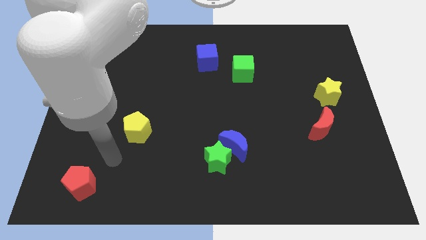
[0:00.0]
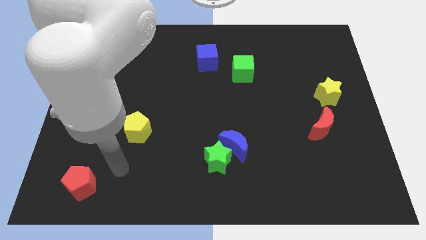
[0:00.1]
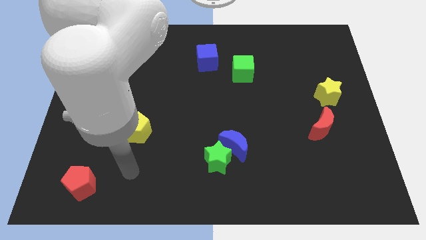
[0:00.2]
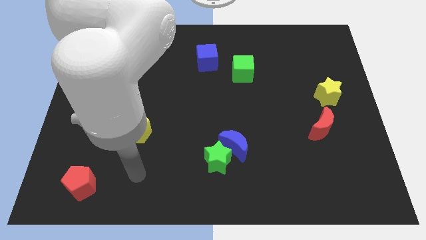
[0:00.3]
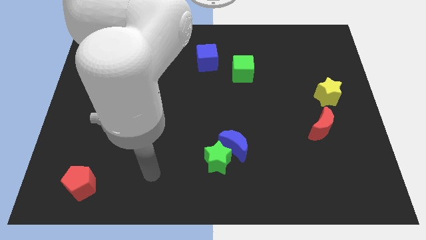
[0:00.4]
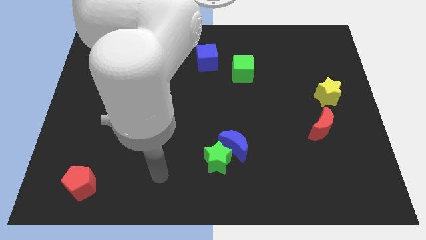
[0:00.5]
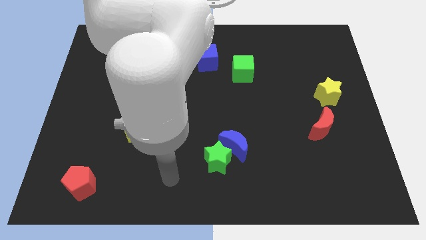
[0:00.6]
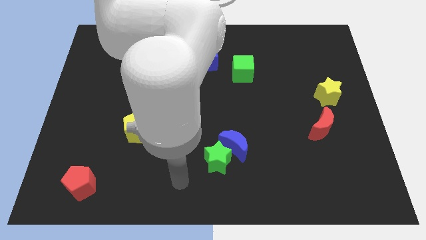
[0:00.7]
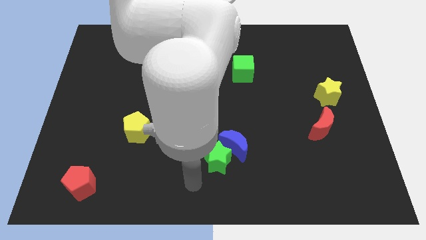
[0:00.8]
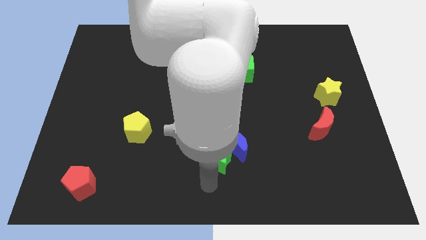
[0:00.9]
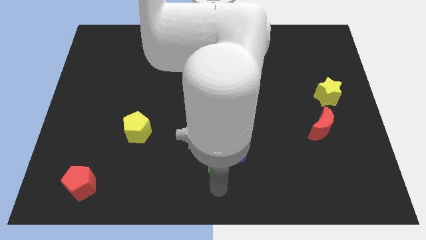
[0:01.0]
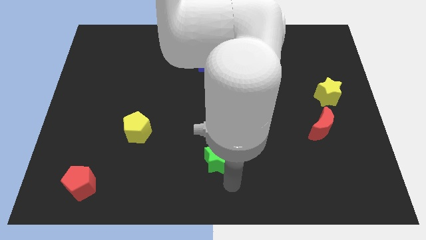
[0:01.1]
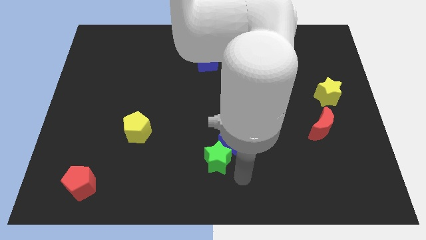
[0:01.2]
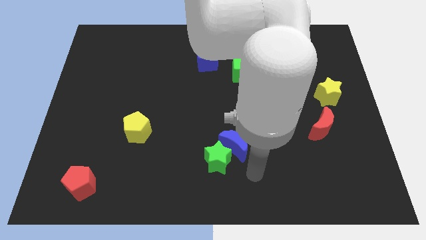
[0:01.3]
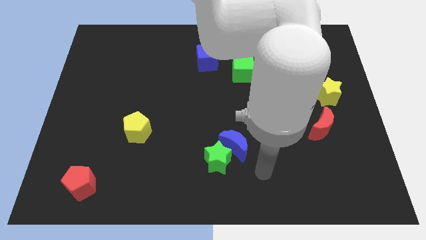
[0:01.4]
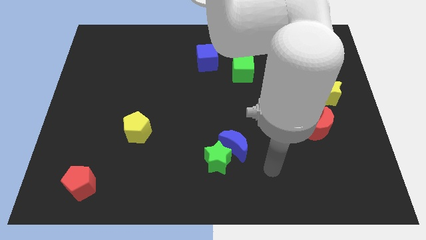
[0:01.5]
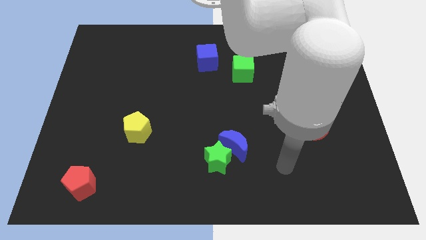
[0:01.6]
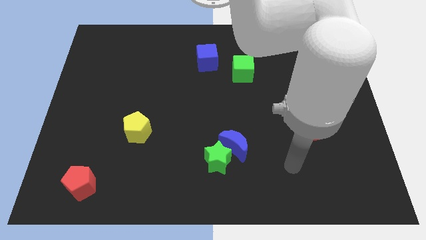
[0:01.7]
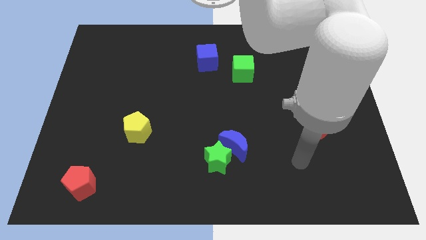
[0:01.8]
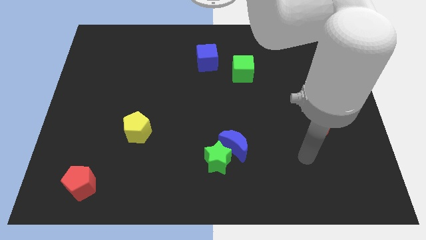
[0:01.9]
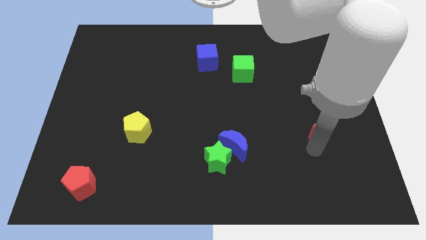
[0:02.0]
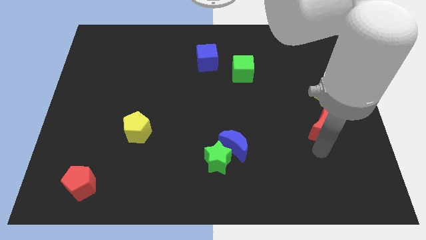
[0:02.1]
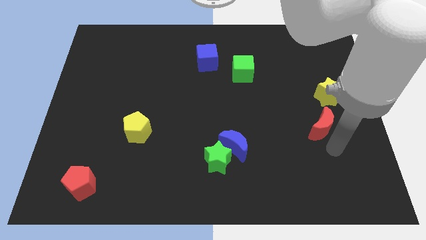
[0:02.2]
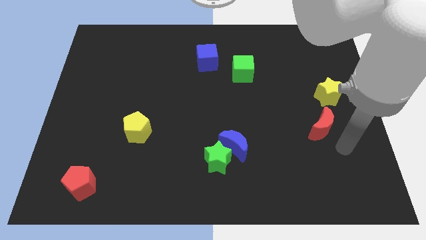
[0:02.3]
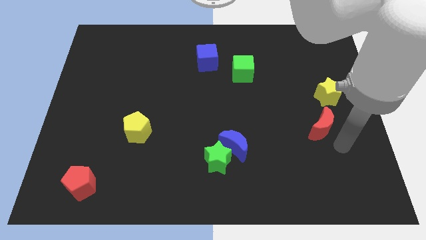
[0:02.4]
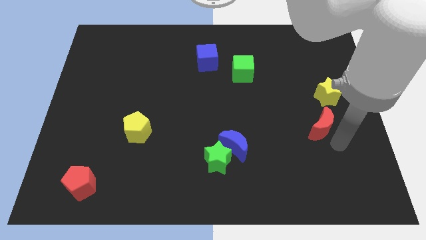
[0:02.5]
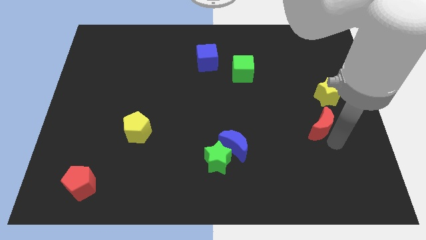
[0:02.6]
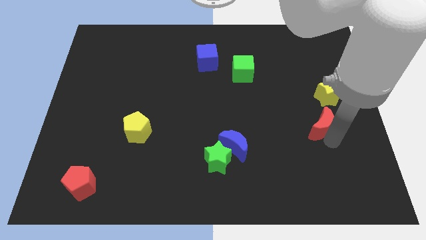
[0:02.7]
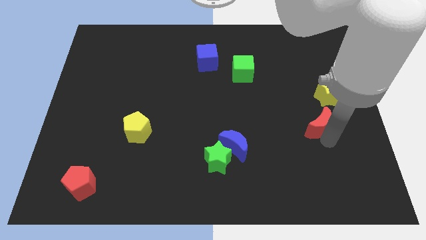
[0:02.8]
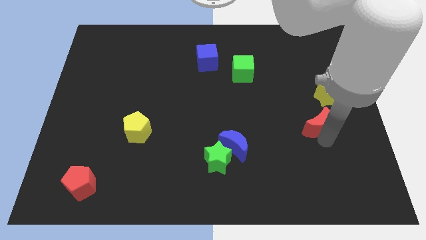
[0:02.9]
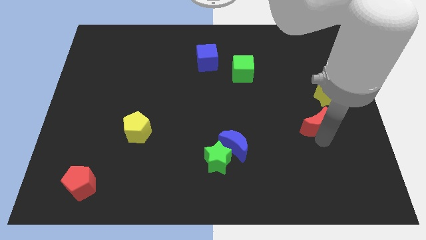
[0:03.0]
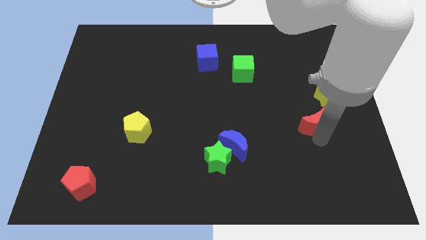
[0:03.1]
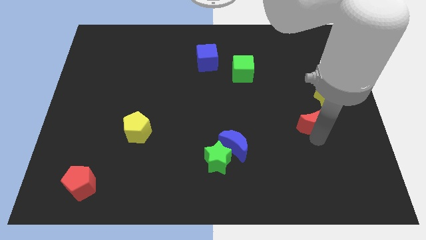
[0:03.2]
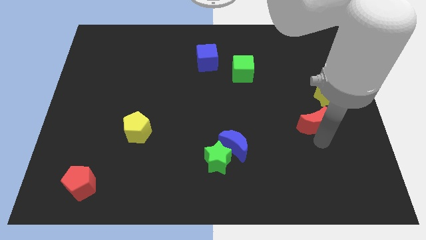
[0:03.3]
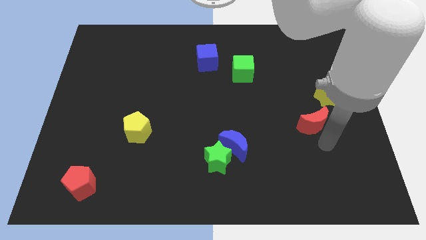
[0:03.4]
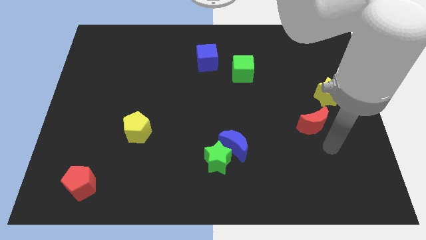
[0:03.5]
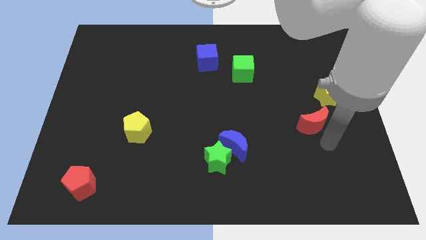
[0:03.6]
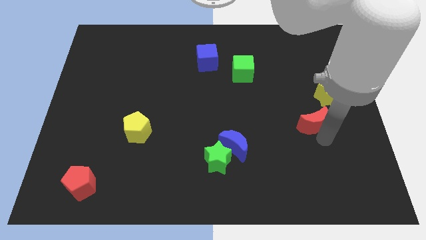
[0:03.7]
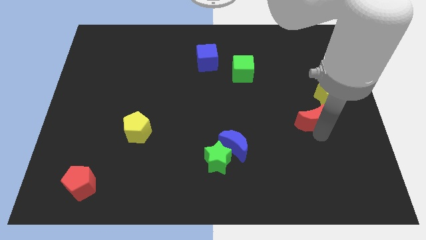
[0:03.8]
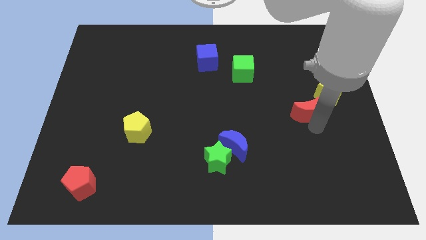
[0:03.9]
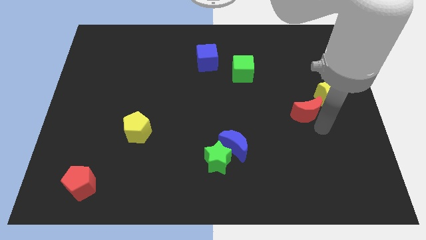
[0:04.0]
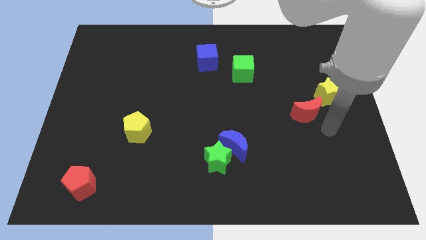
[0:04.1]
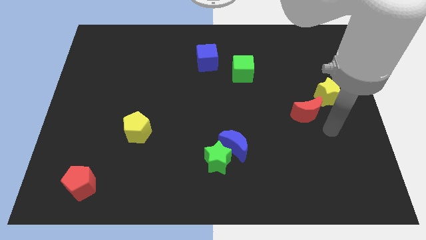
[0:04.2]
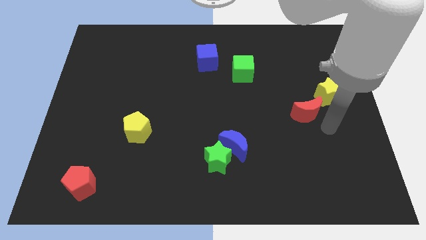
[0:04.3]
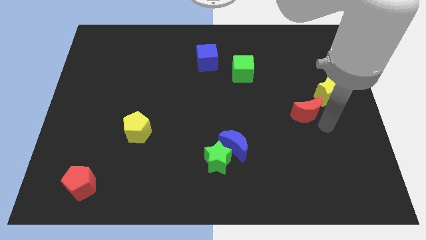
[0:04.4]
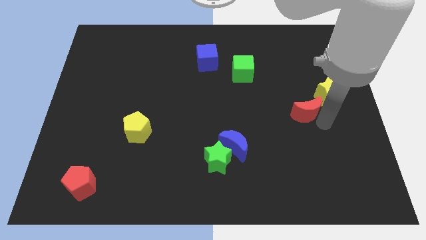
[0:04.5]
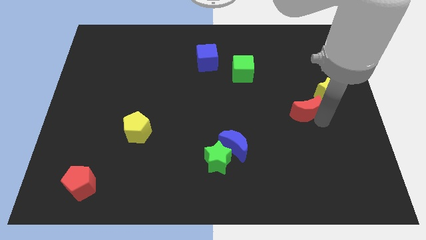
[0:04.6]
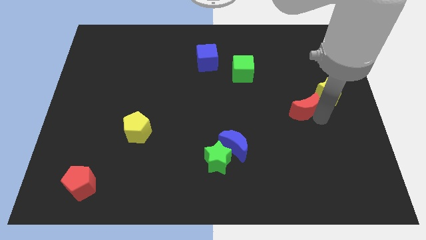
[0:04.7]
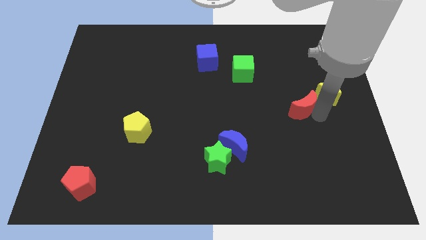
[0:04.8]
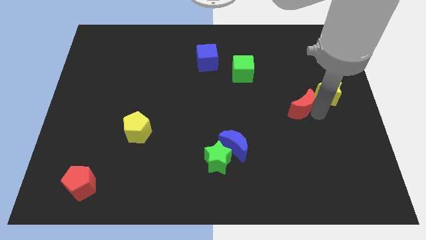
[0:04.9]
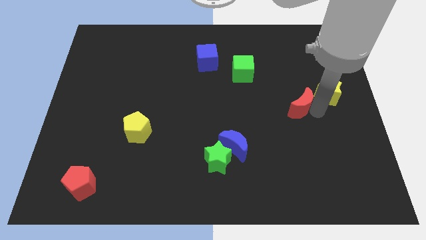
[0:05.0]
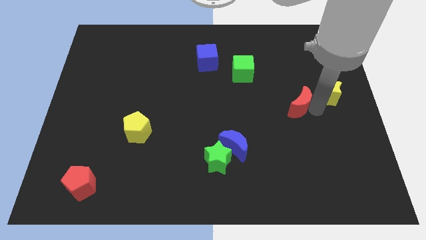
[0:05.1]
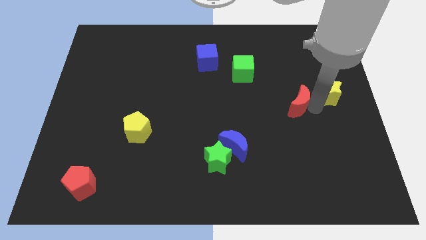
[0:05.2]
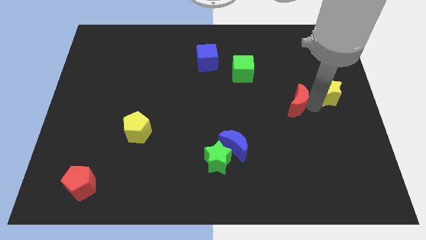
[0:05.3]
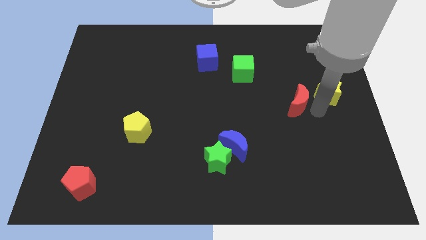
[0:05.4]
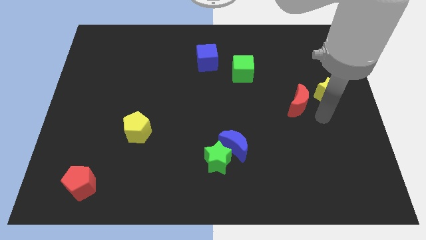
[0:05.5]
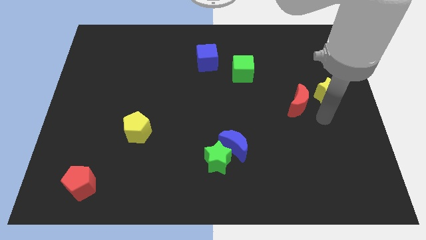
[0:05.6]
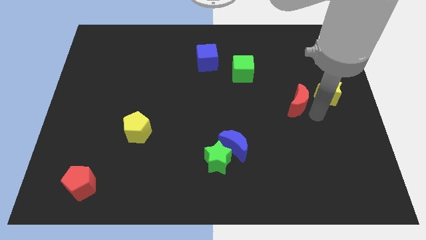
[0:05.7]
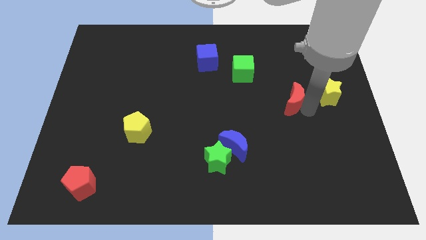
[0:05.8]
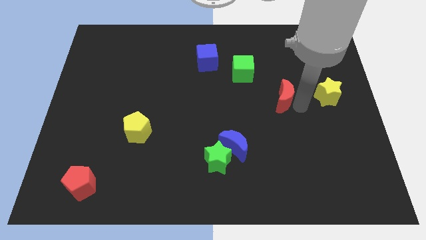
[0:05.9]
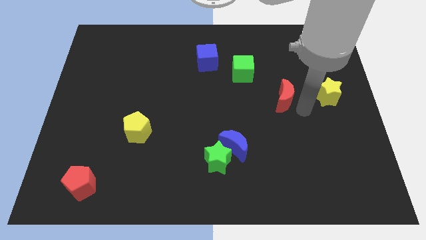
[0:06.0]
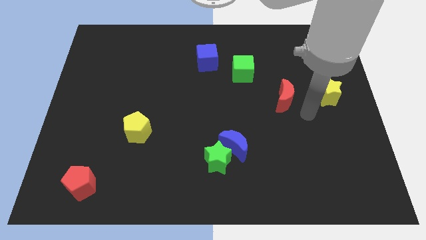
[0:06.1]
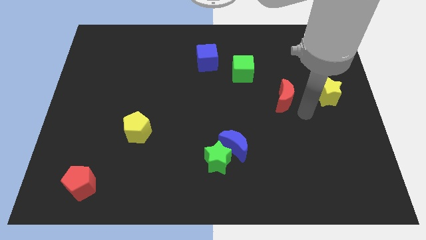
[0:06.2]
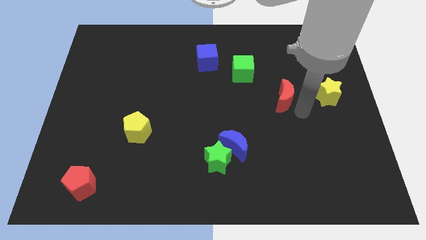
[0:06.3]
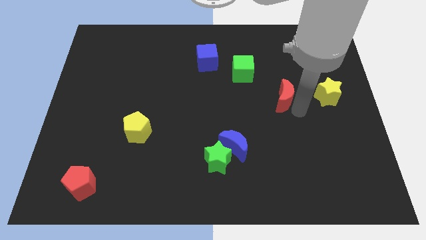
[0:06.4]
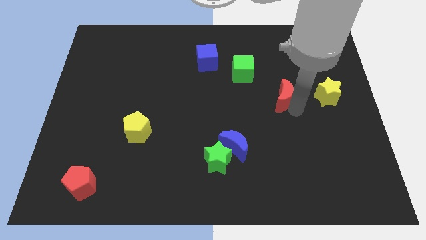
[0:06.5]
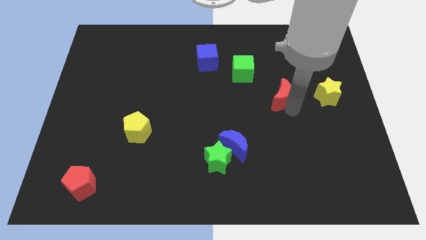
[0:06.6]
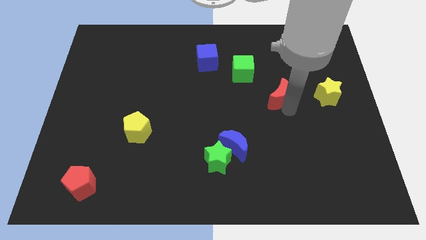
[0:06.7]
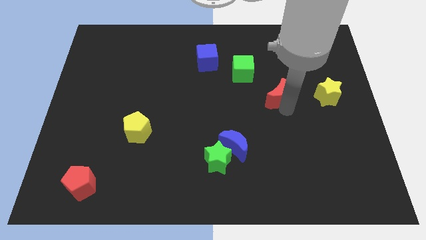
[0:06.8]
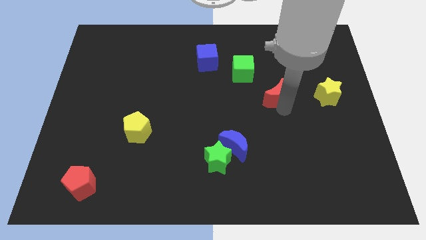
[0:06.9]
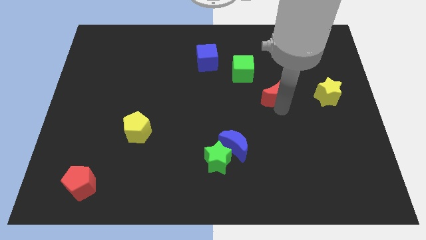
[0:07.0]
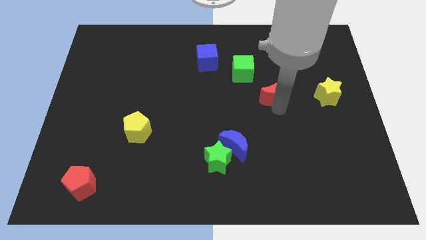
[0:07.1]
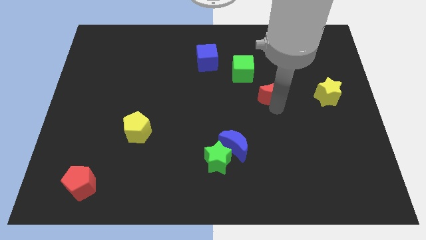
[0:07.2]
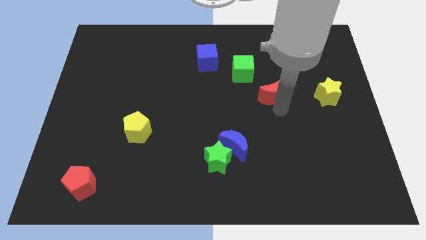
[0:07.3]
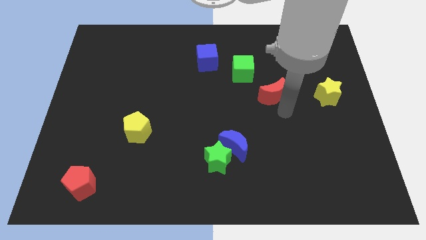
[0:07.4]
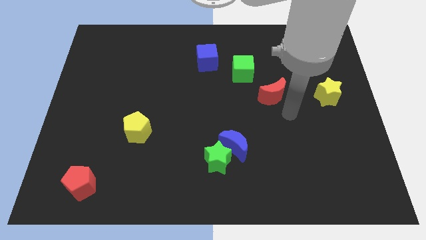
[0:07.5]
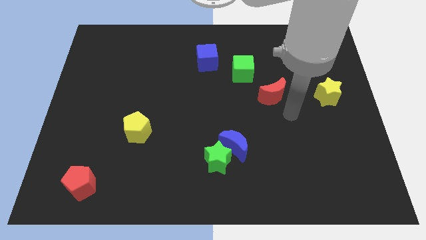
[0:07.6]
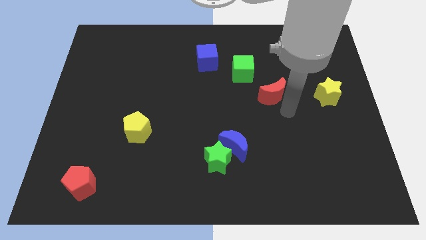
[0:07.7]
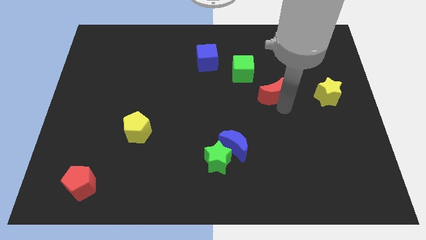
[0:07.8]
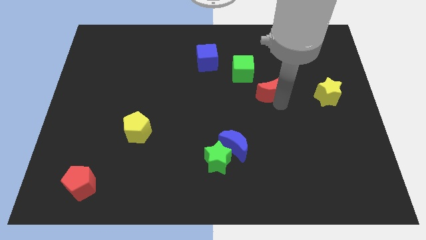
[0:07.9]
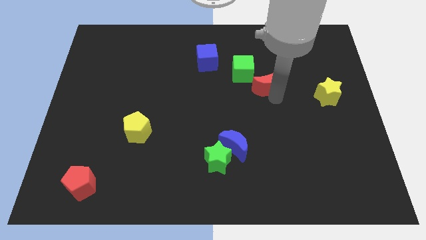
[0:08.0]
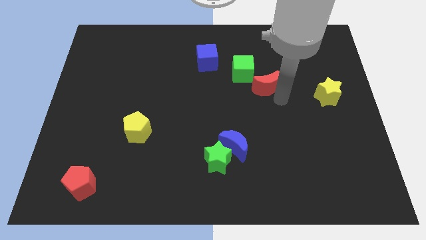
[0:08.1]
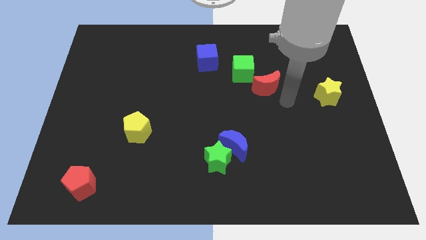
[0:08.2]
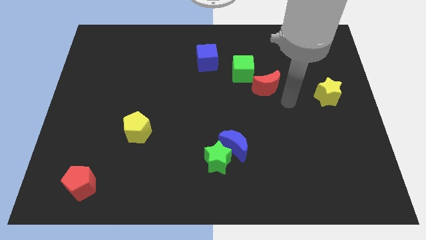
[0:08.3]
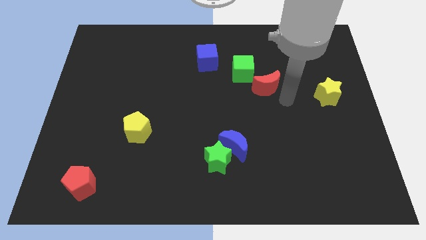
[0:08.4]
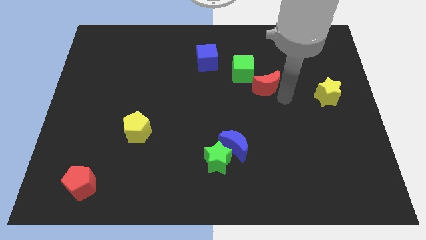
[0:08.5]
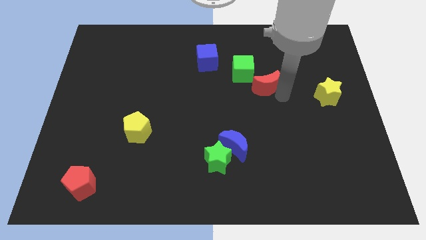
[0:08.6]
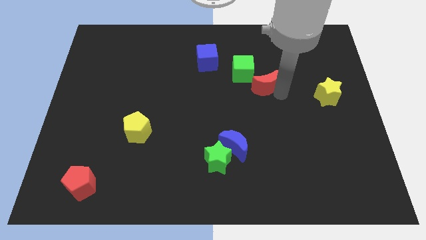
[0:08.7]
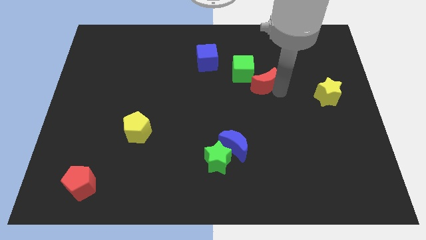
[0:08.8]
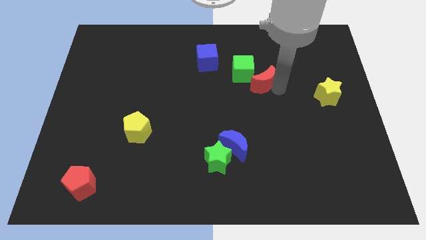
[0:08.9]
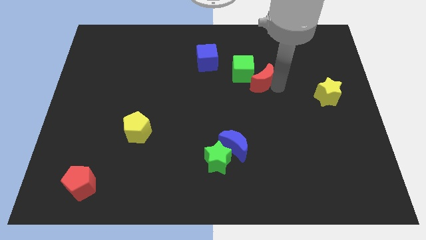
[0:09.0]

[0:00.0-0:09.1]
slide the red moon towards the green cube
